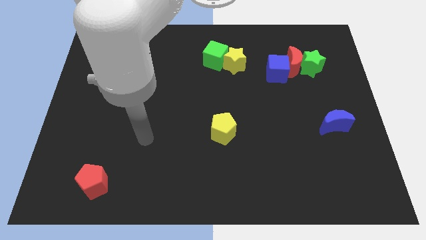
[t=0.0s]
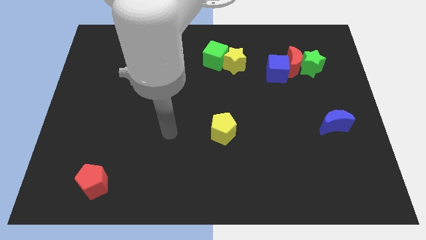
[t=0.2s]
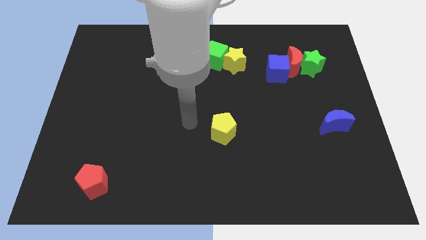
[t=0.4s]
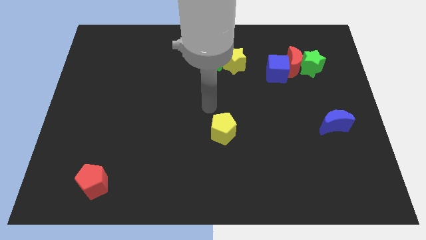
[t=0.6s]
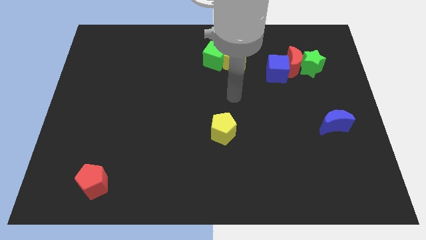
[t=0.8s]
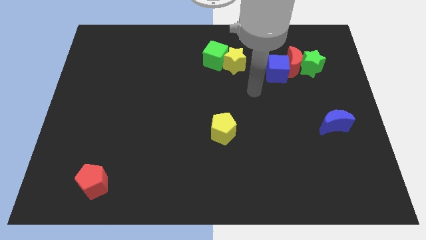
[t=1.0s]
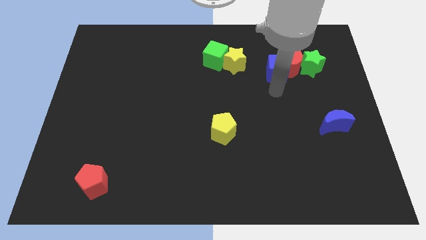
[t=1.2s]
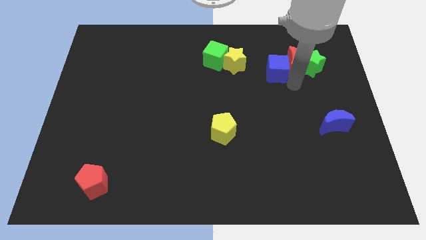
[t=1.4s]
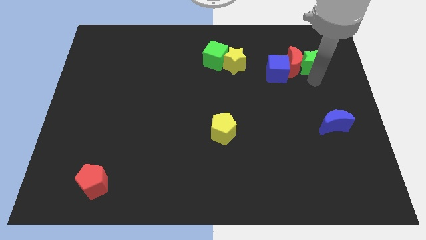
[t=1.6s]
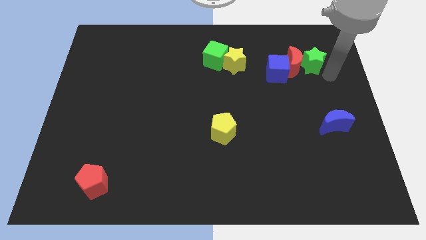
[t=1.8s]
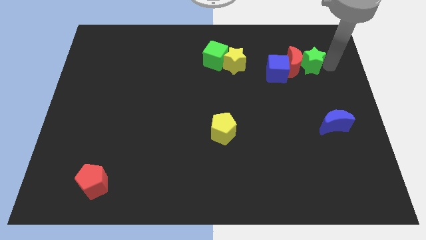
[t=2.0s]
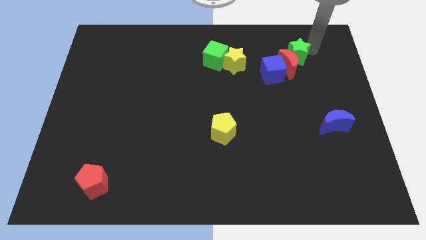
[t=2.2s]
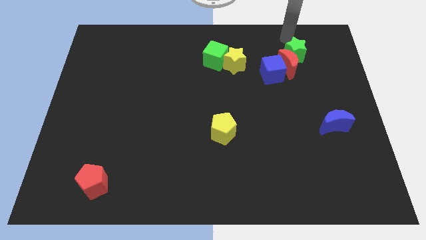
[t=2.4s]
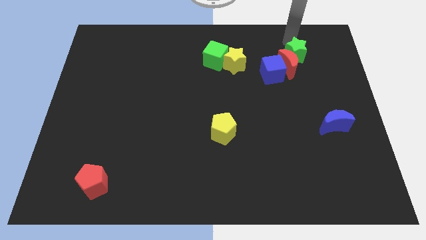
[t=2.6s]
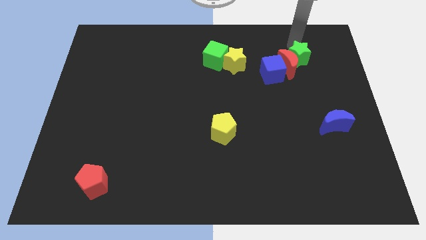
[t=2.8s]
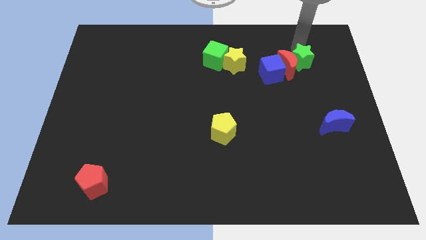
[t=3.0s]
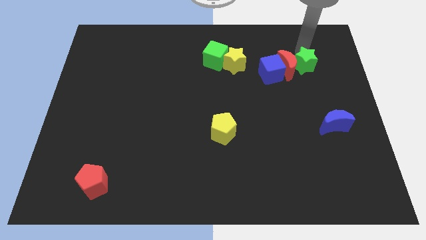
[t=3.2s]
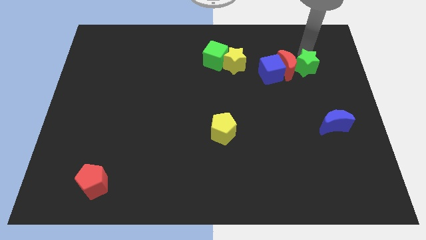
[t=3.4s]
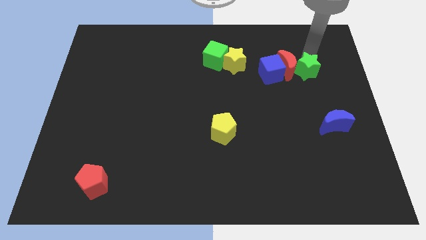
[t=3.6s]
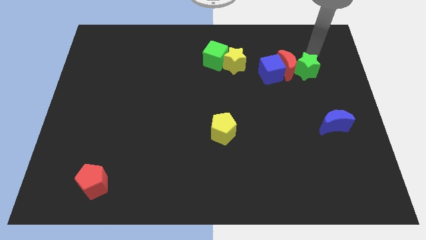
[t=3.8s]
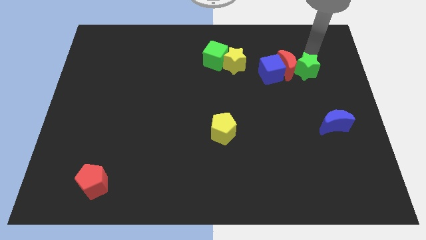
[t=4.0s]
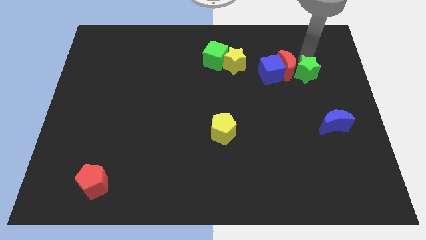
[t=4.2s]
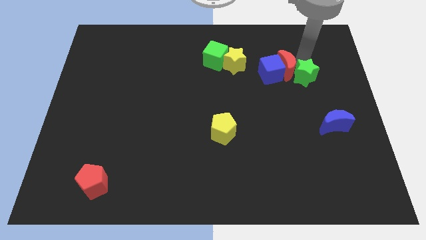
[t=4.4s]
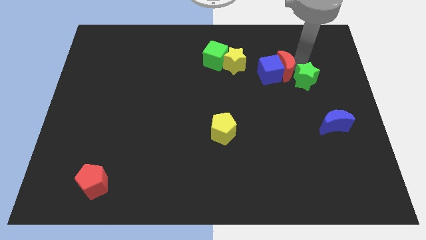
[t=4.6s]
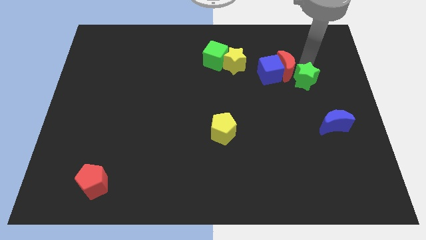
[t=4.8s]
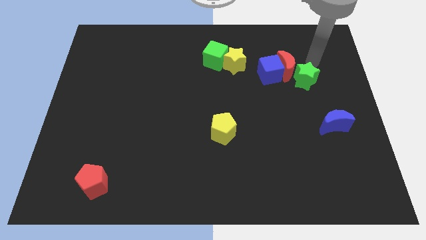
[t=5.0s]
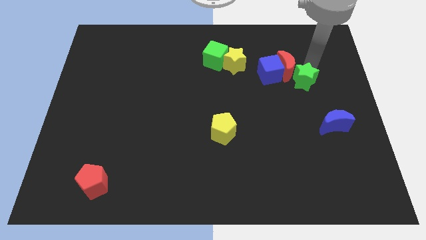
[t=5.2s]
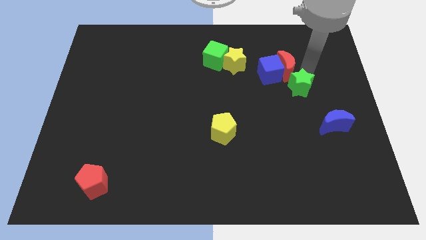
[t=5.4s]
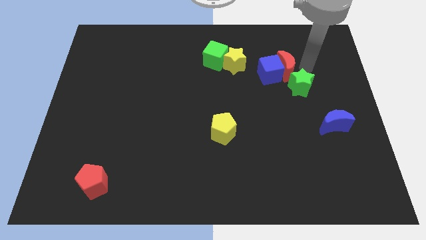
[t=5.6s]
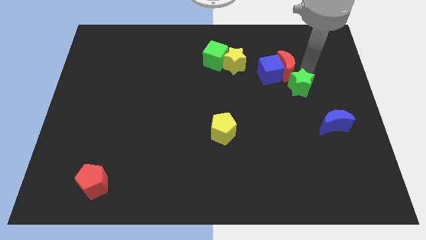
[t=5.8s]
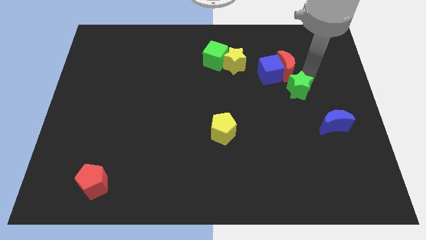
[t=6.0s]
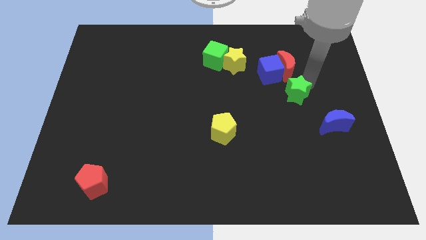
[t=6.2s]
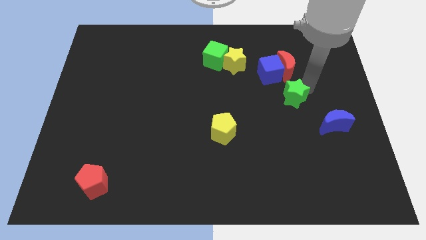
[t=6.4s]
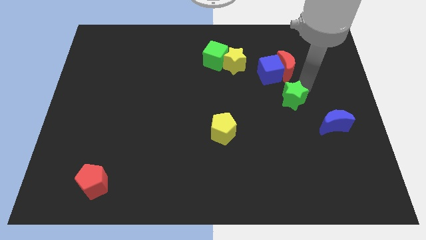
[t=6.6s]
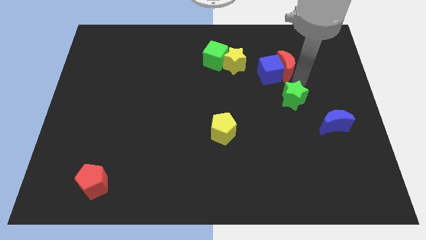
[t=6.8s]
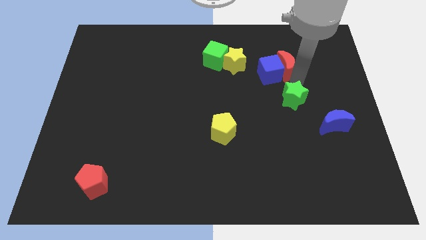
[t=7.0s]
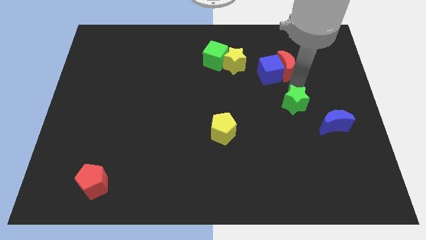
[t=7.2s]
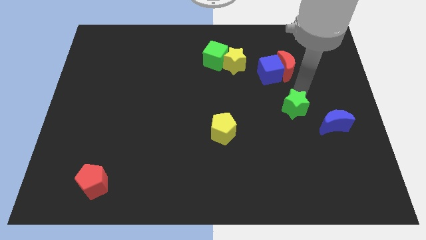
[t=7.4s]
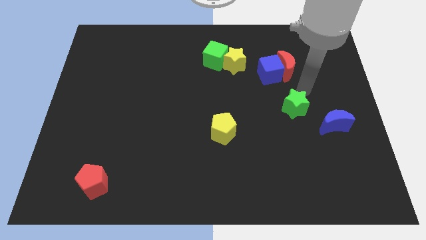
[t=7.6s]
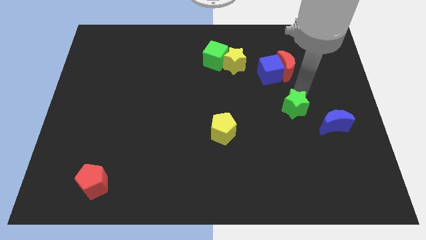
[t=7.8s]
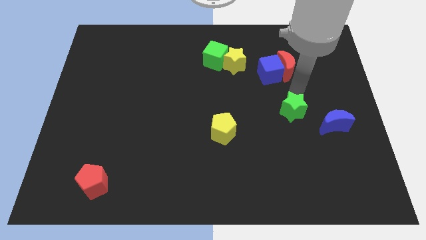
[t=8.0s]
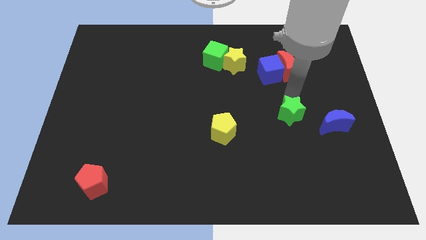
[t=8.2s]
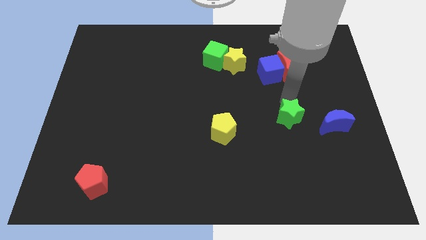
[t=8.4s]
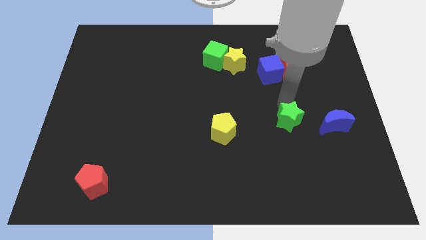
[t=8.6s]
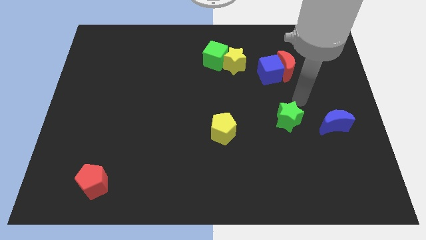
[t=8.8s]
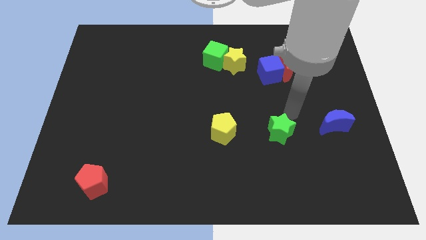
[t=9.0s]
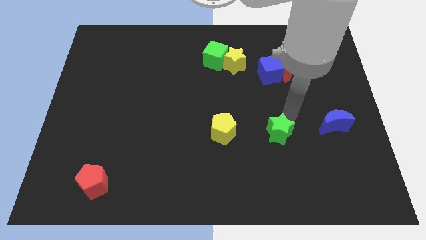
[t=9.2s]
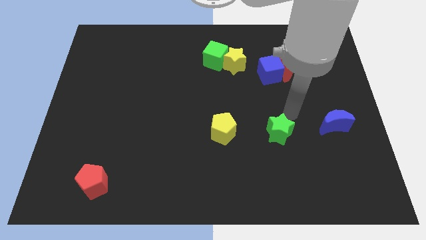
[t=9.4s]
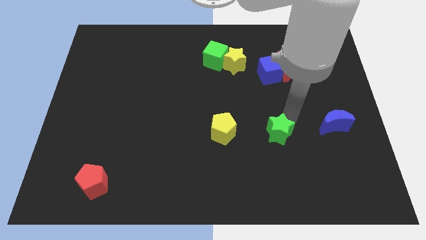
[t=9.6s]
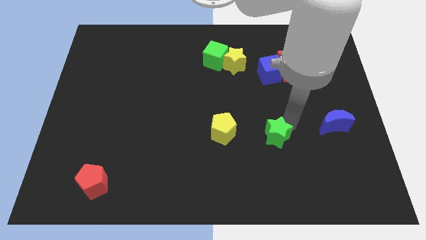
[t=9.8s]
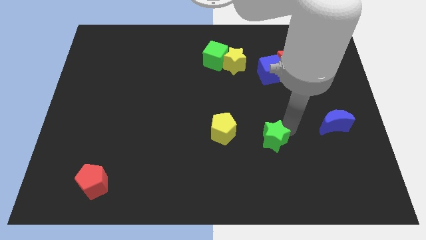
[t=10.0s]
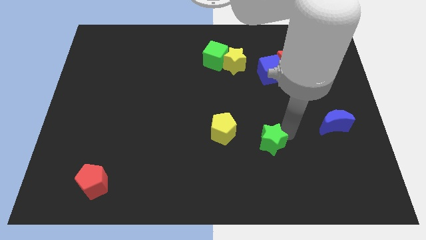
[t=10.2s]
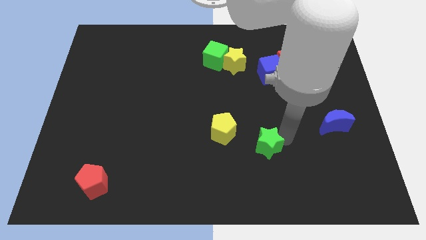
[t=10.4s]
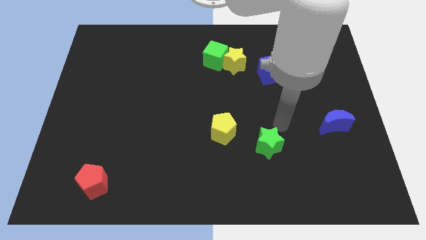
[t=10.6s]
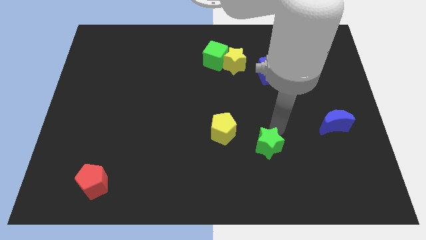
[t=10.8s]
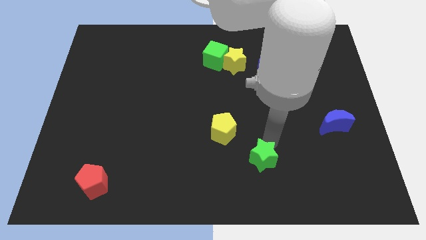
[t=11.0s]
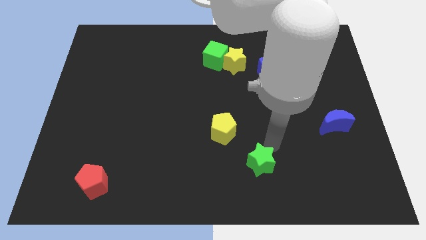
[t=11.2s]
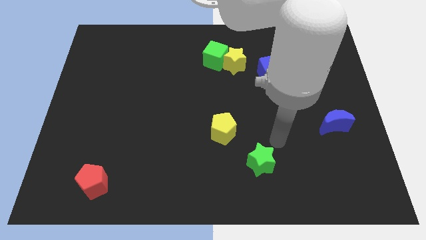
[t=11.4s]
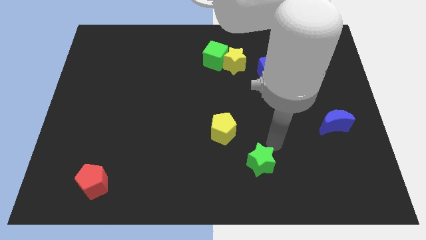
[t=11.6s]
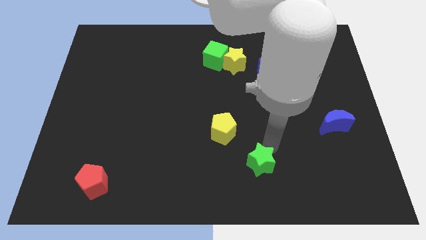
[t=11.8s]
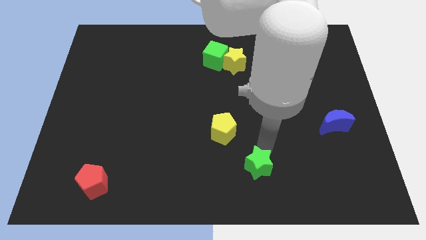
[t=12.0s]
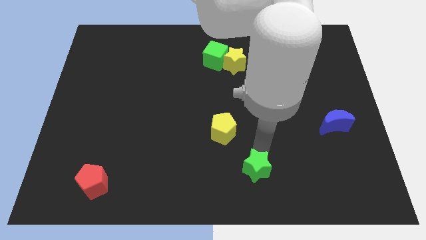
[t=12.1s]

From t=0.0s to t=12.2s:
slide the green star to the bottom side
